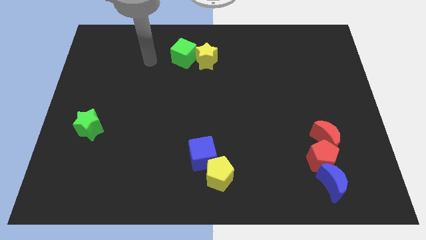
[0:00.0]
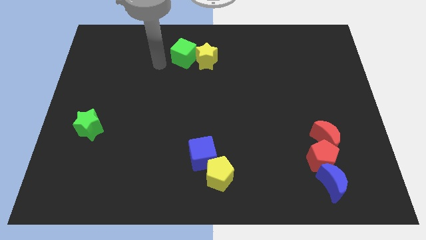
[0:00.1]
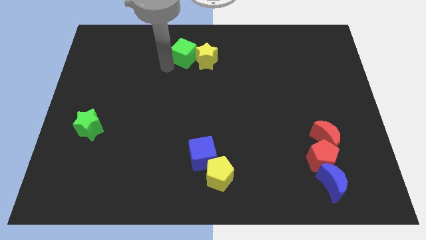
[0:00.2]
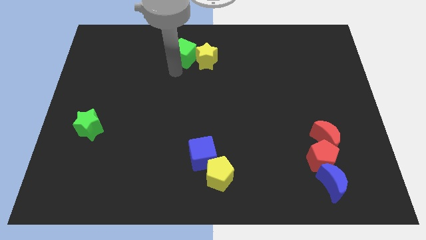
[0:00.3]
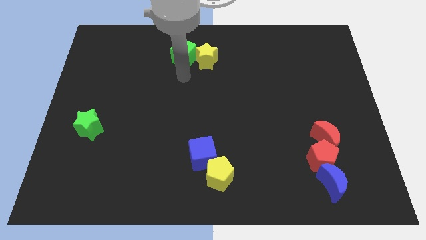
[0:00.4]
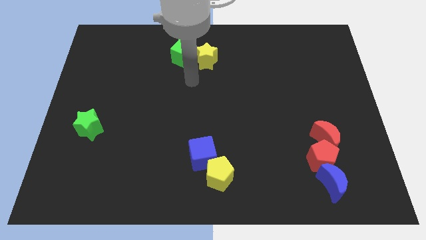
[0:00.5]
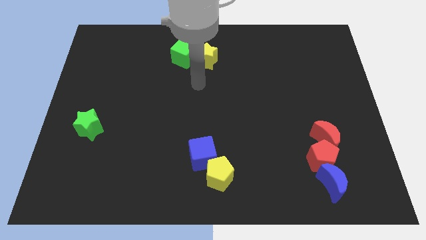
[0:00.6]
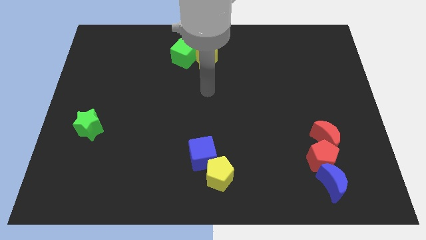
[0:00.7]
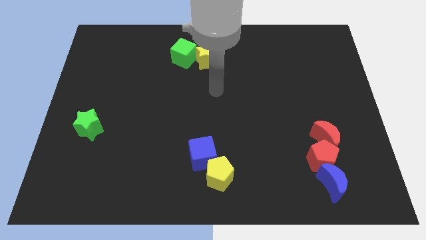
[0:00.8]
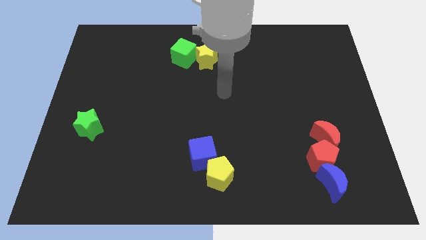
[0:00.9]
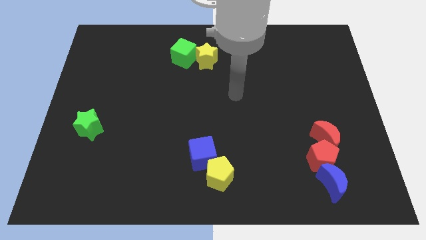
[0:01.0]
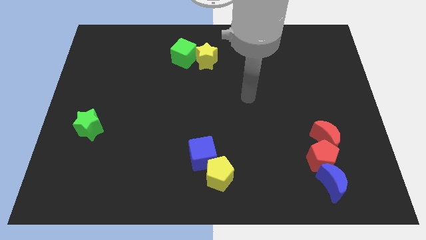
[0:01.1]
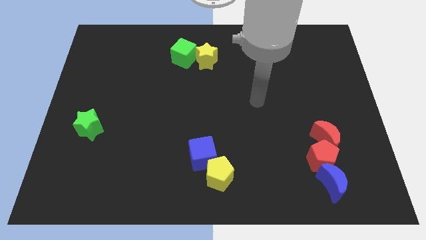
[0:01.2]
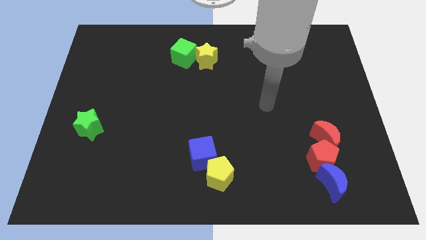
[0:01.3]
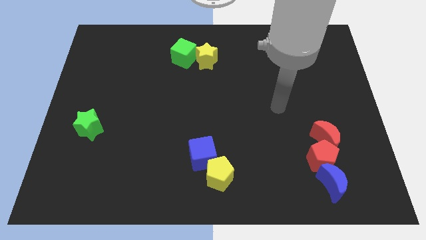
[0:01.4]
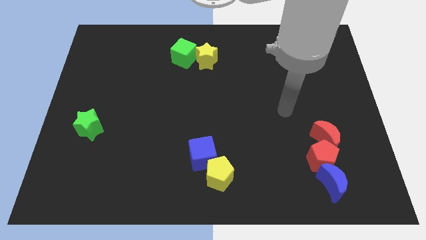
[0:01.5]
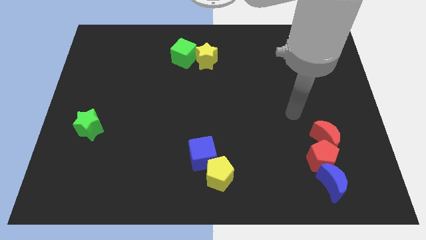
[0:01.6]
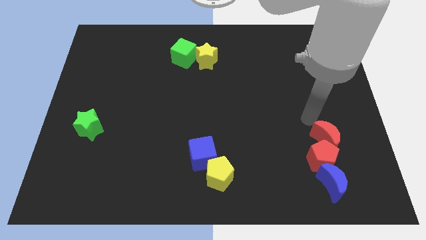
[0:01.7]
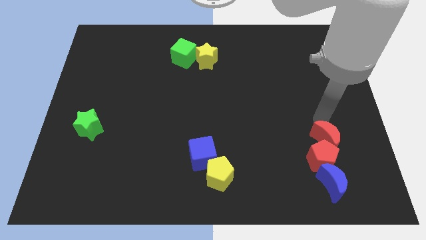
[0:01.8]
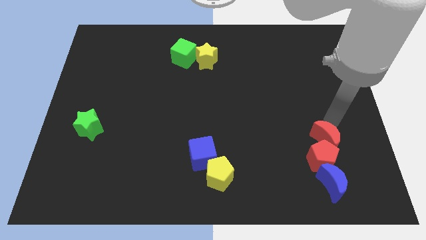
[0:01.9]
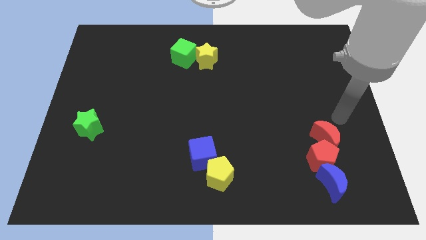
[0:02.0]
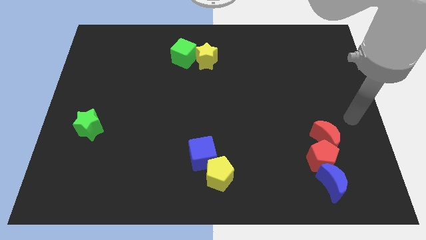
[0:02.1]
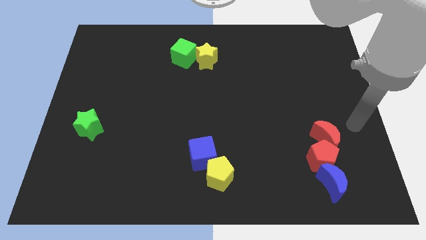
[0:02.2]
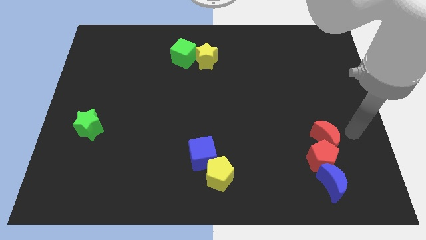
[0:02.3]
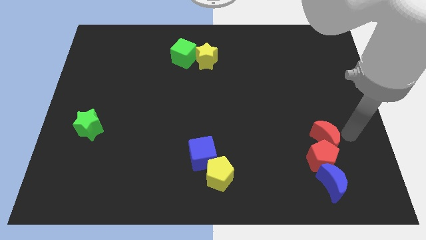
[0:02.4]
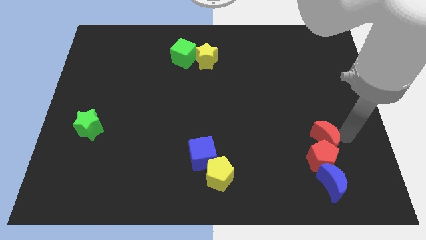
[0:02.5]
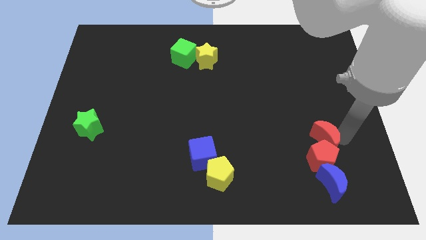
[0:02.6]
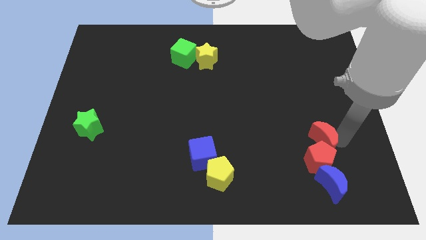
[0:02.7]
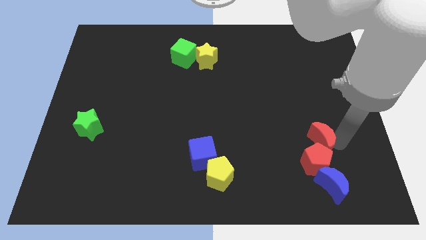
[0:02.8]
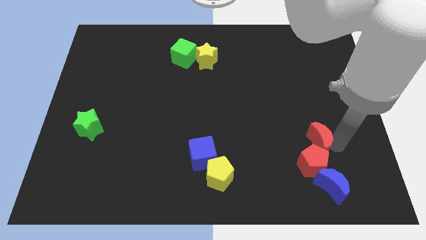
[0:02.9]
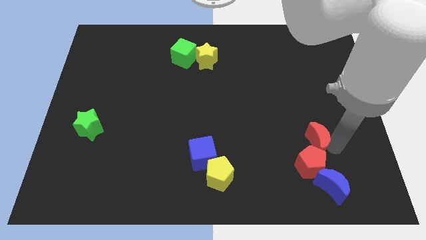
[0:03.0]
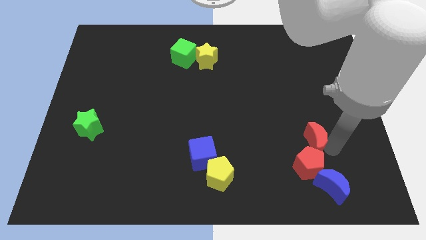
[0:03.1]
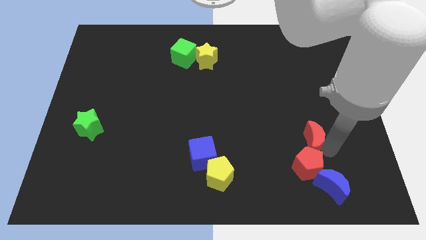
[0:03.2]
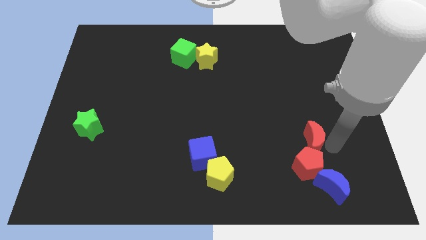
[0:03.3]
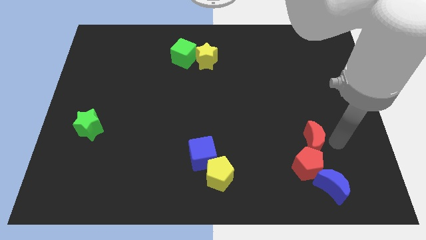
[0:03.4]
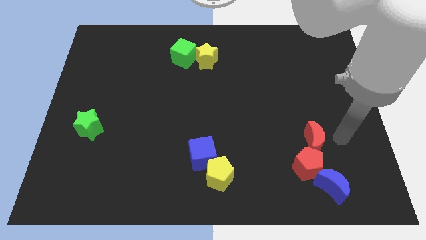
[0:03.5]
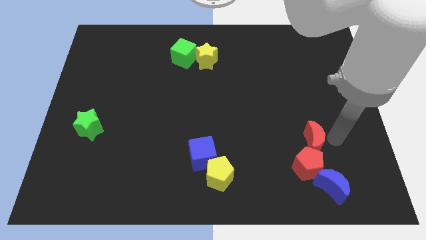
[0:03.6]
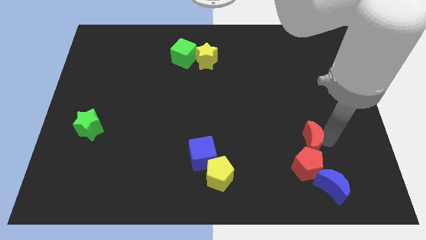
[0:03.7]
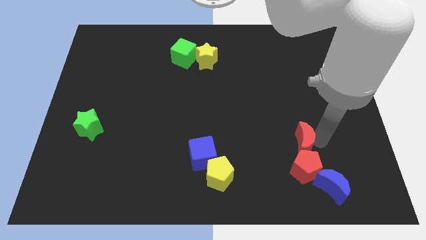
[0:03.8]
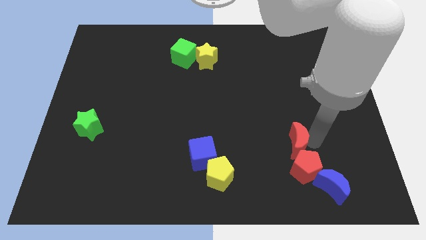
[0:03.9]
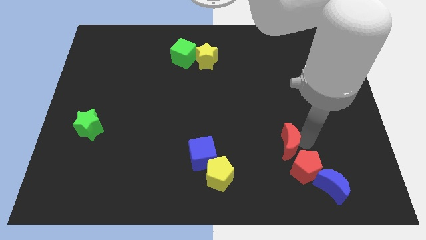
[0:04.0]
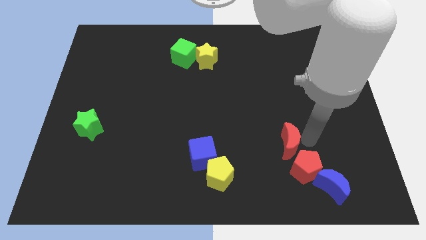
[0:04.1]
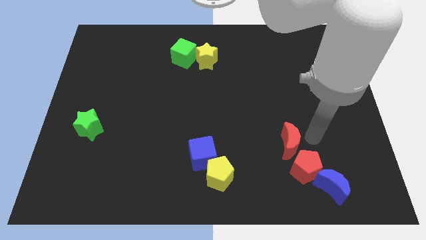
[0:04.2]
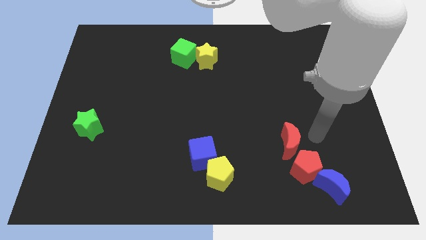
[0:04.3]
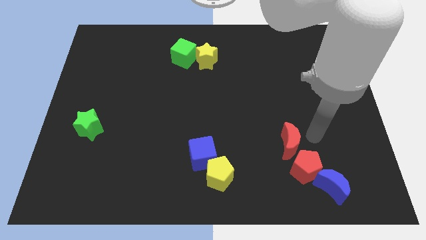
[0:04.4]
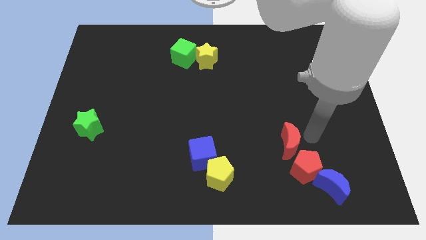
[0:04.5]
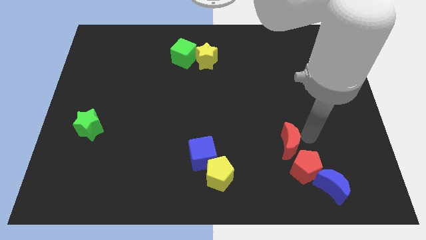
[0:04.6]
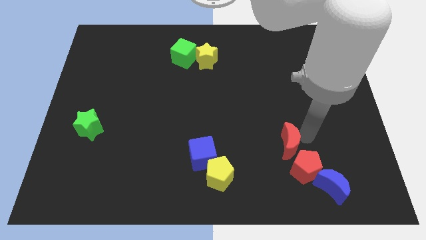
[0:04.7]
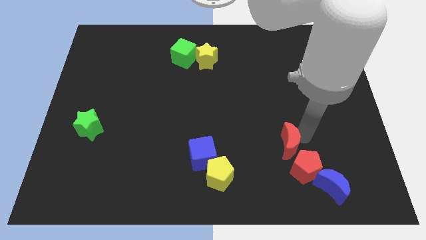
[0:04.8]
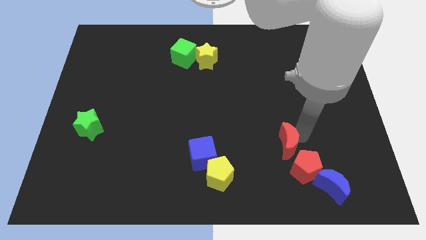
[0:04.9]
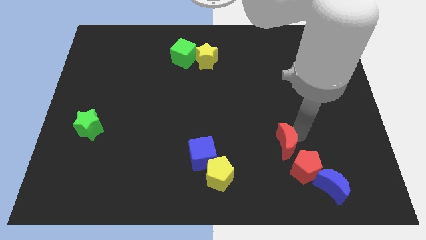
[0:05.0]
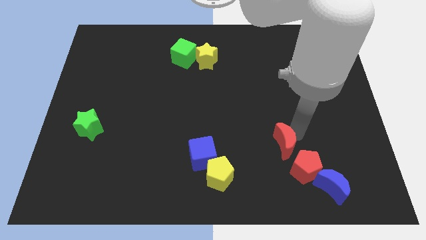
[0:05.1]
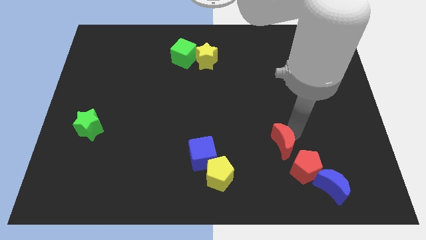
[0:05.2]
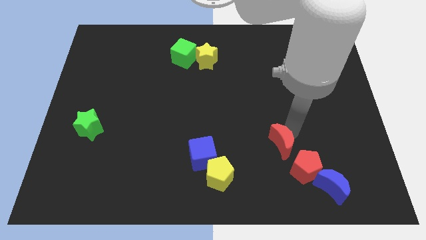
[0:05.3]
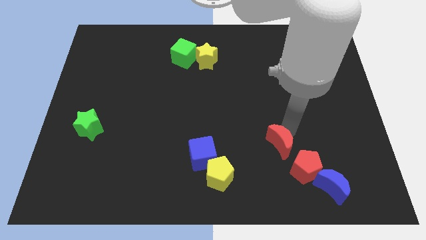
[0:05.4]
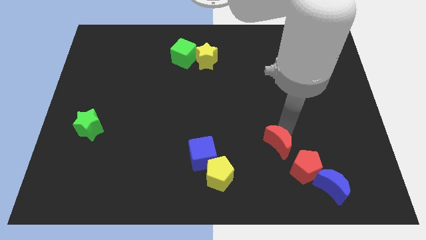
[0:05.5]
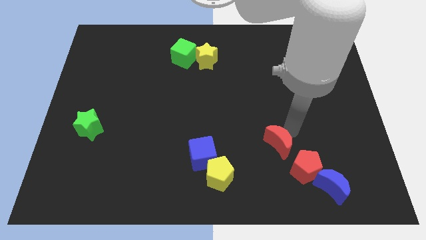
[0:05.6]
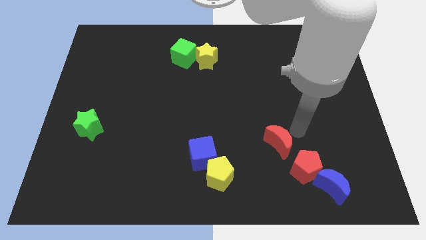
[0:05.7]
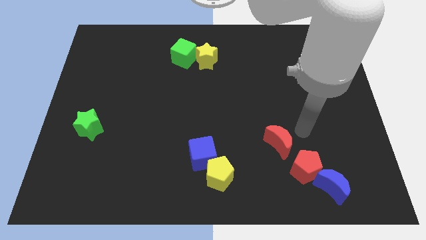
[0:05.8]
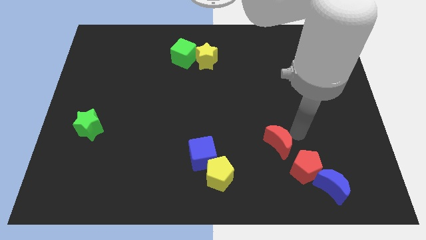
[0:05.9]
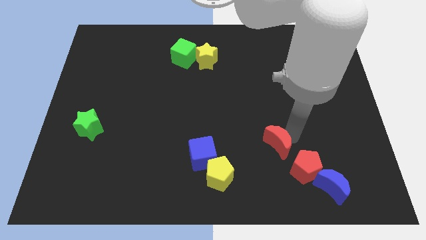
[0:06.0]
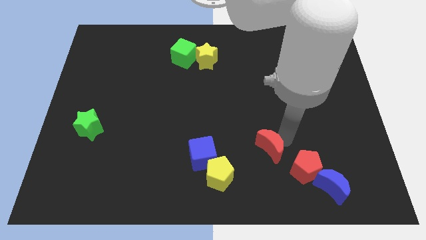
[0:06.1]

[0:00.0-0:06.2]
push the red moon just right of the blue cube

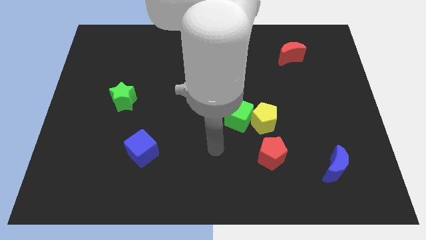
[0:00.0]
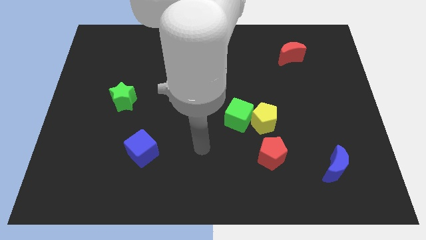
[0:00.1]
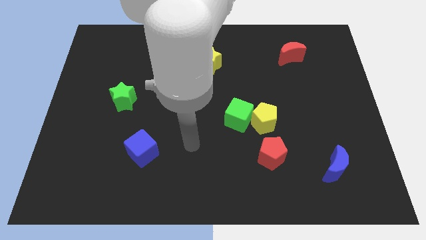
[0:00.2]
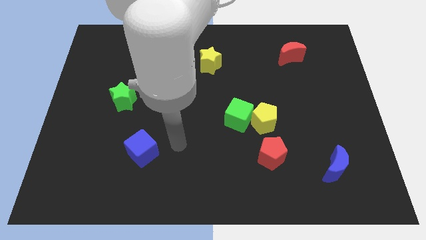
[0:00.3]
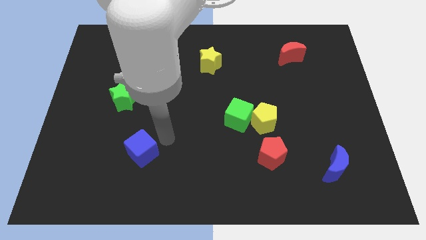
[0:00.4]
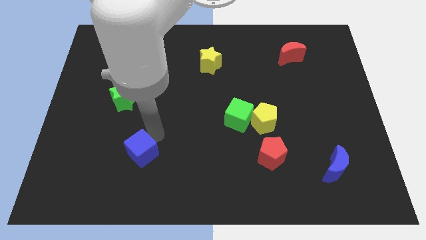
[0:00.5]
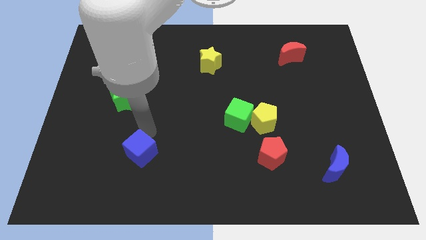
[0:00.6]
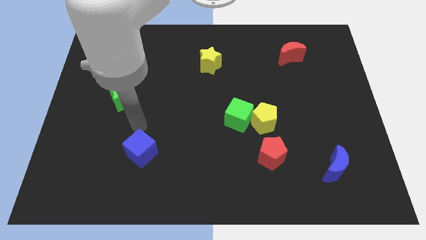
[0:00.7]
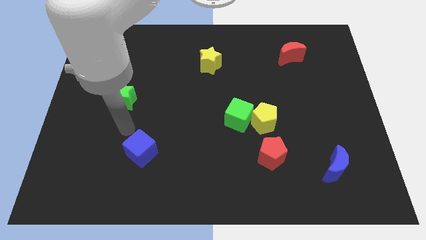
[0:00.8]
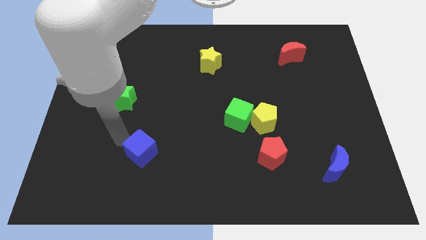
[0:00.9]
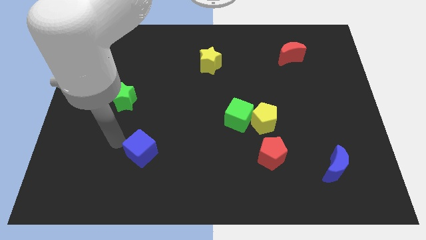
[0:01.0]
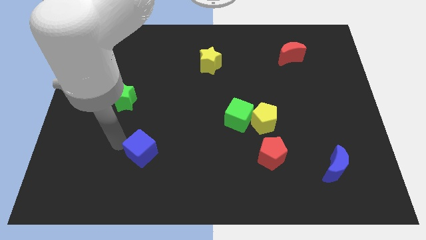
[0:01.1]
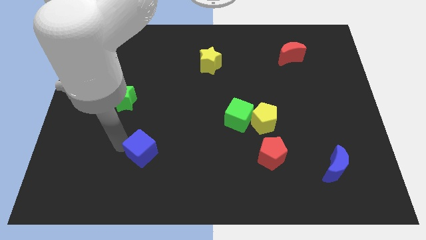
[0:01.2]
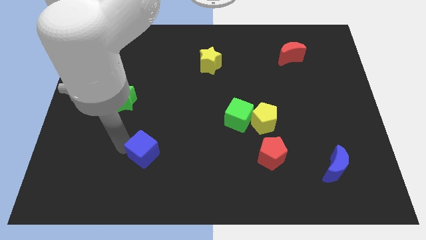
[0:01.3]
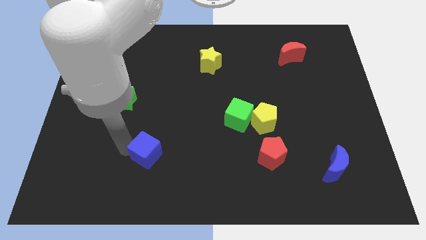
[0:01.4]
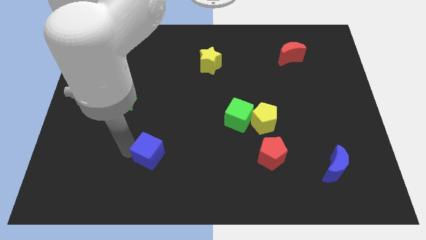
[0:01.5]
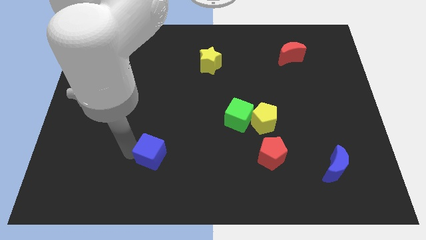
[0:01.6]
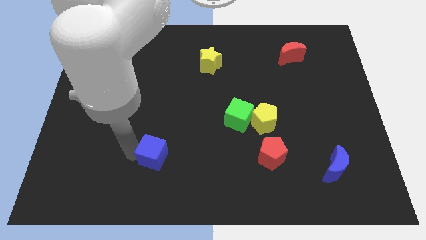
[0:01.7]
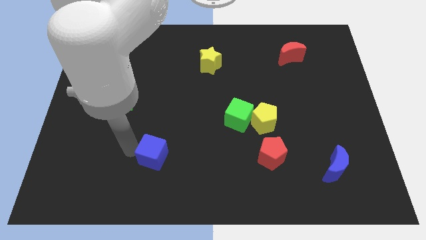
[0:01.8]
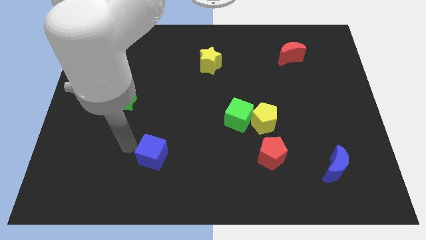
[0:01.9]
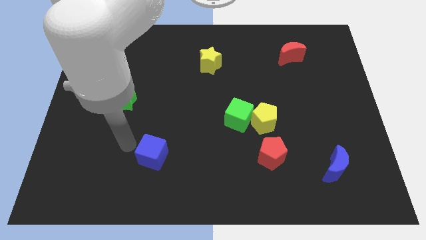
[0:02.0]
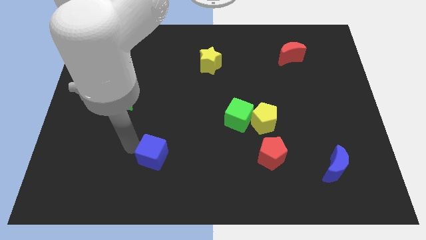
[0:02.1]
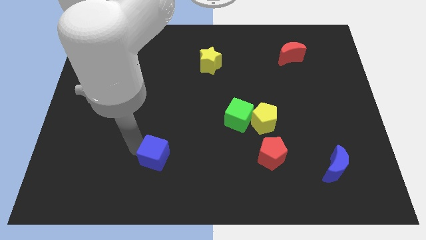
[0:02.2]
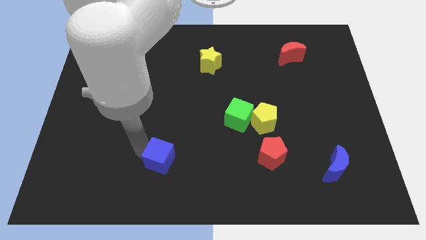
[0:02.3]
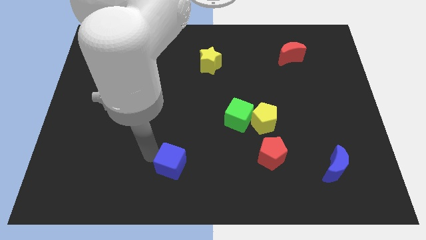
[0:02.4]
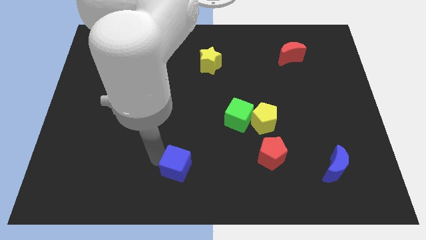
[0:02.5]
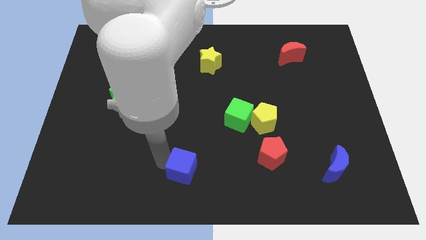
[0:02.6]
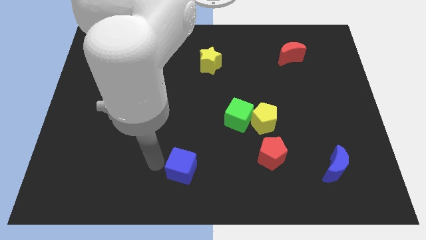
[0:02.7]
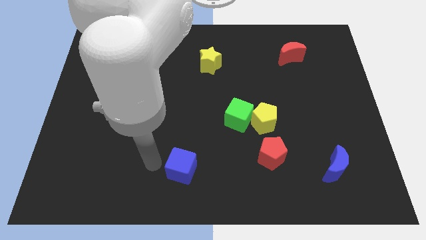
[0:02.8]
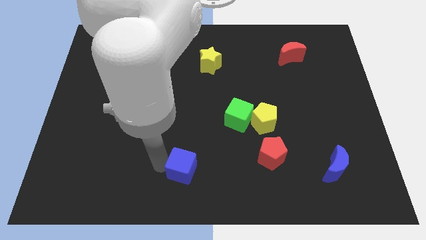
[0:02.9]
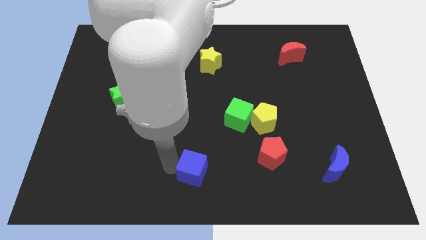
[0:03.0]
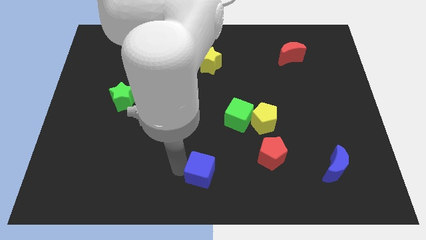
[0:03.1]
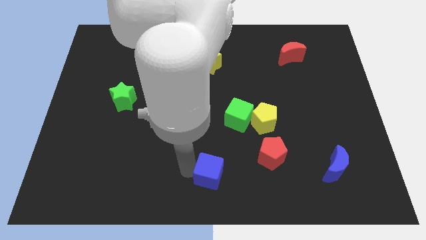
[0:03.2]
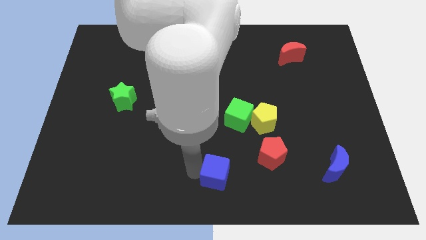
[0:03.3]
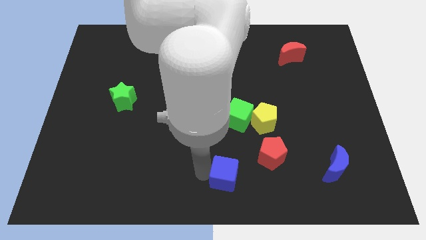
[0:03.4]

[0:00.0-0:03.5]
push the blue cube to the bottom left side of the red pentagon
